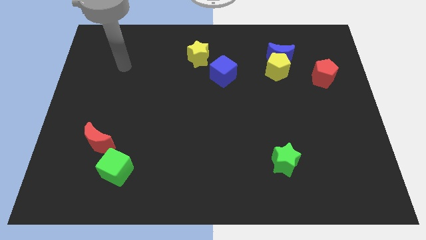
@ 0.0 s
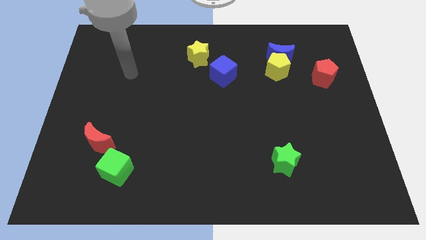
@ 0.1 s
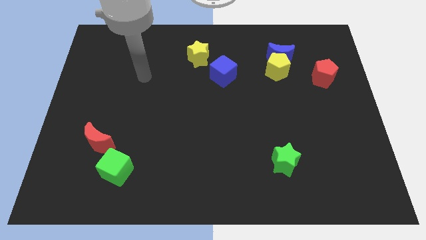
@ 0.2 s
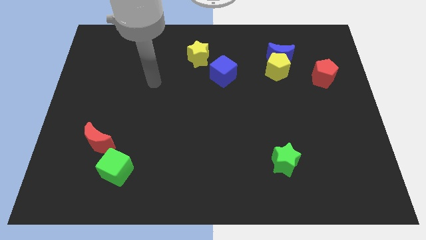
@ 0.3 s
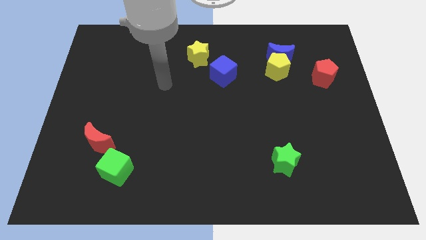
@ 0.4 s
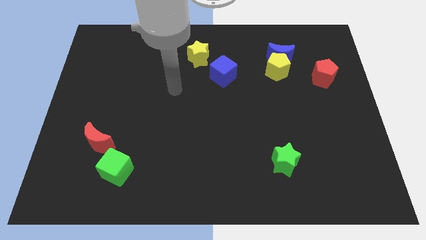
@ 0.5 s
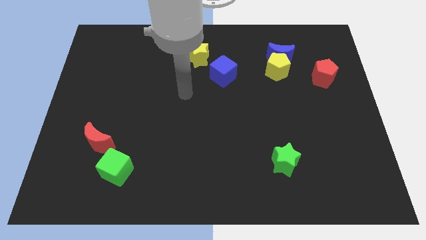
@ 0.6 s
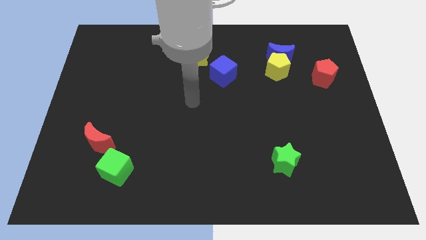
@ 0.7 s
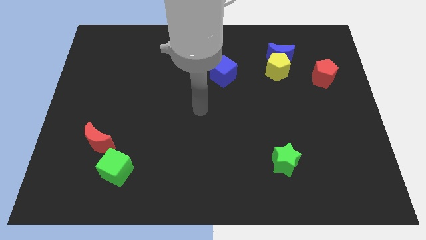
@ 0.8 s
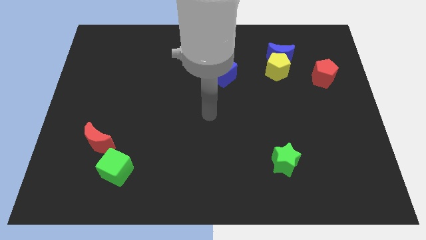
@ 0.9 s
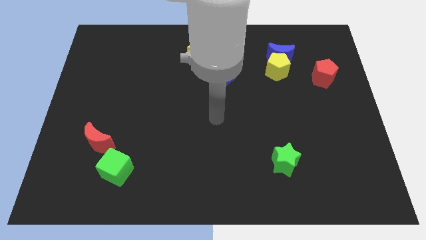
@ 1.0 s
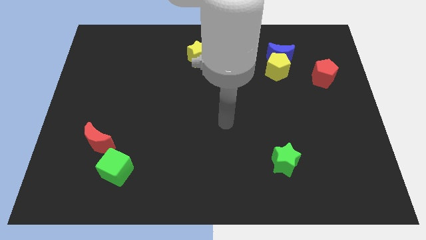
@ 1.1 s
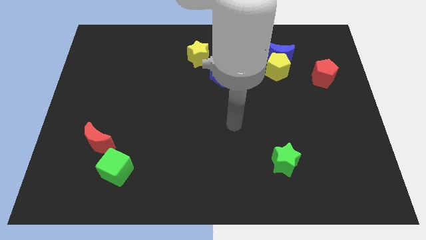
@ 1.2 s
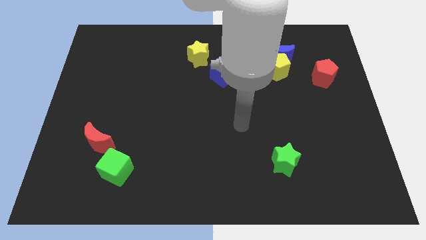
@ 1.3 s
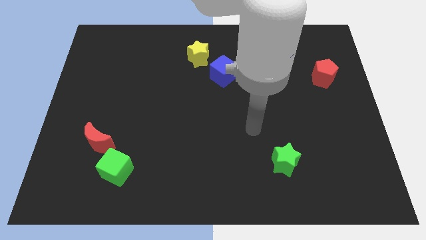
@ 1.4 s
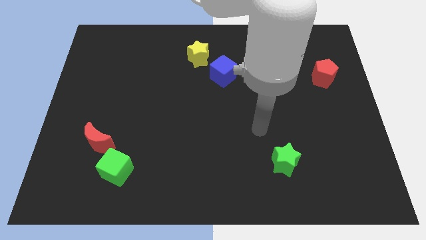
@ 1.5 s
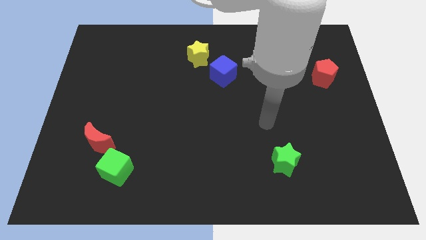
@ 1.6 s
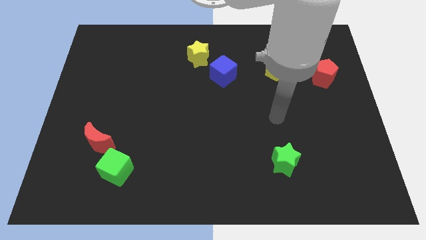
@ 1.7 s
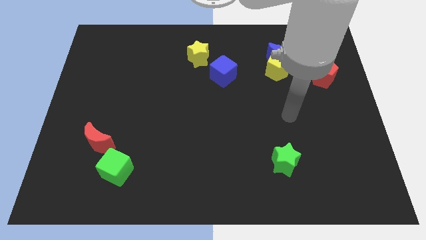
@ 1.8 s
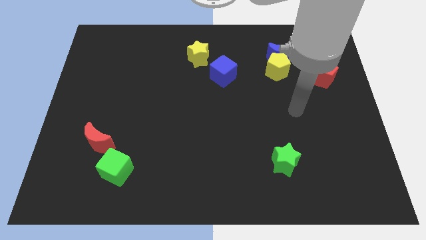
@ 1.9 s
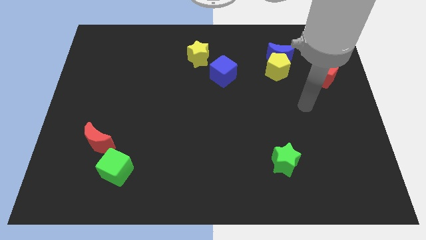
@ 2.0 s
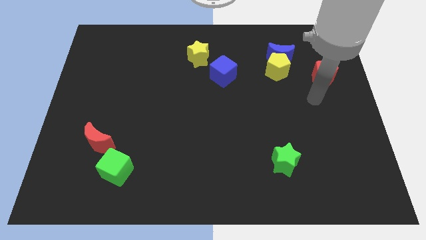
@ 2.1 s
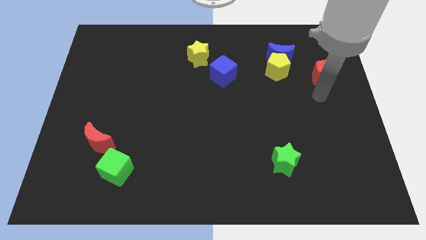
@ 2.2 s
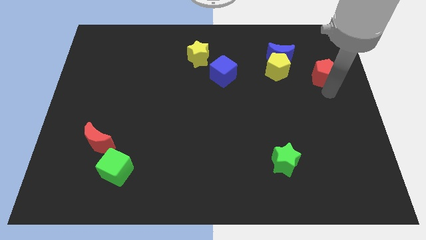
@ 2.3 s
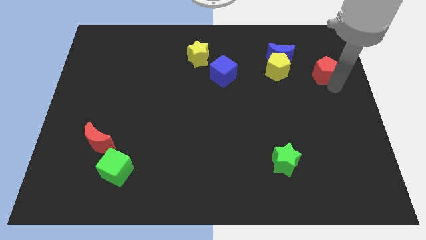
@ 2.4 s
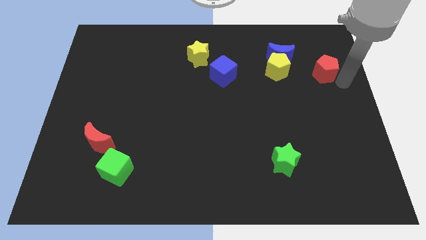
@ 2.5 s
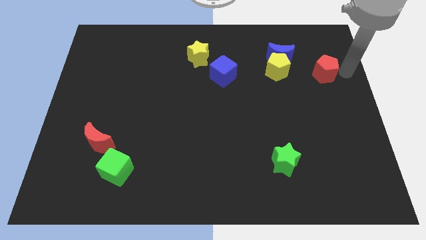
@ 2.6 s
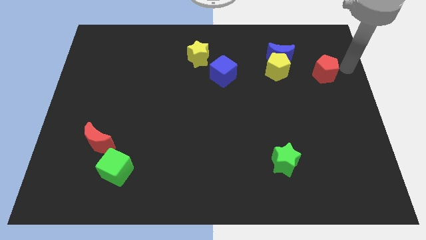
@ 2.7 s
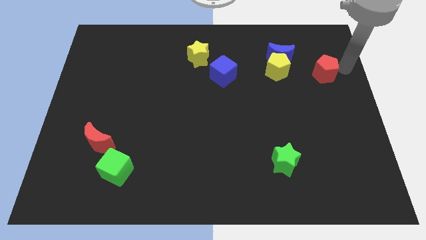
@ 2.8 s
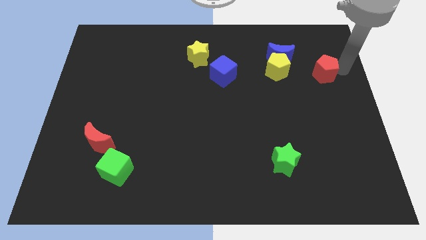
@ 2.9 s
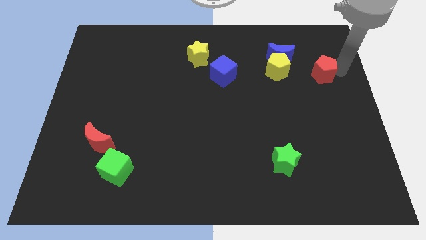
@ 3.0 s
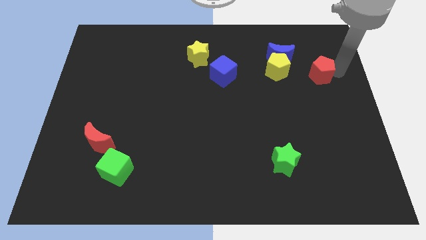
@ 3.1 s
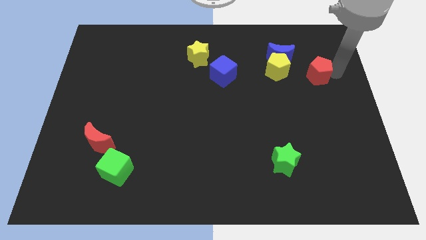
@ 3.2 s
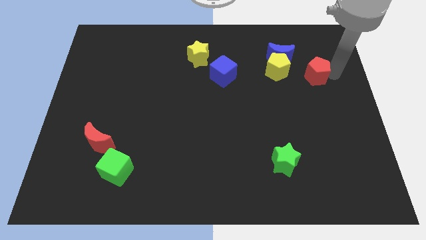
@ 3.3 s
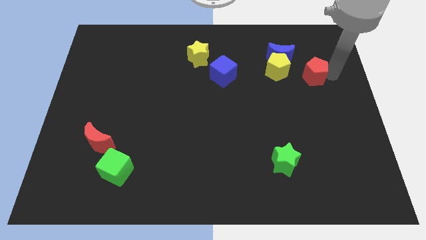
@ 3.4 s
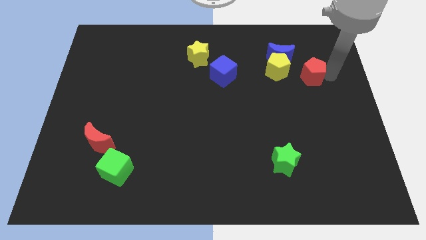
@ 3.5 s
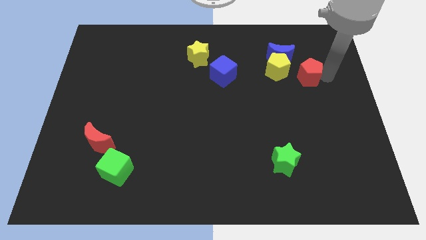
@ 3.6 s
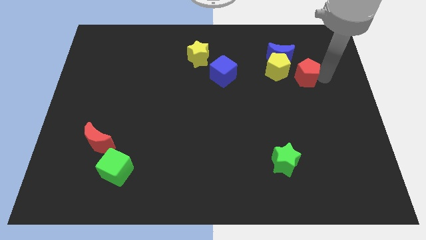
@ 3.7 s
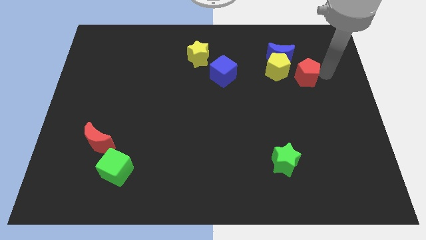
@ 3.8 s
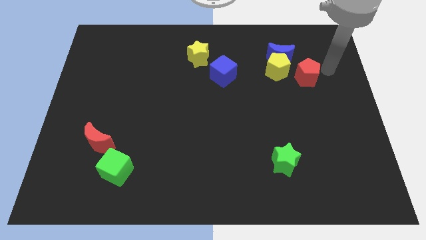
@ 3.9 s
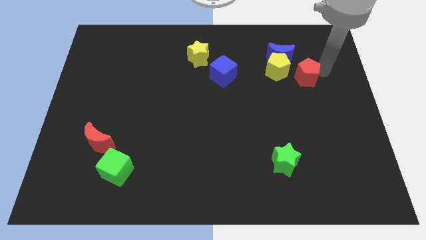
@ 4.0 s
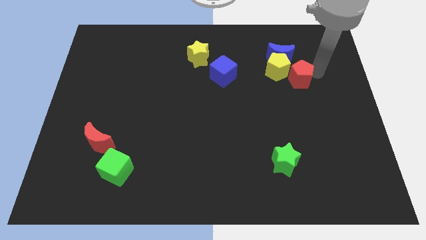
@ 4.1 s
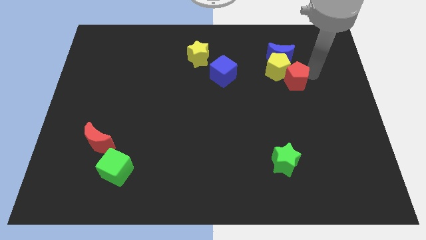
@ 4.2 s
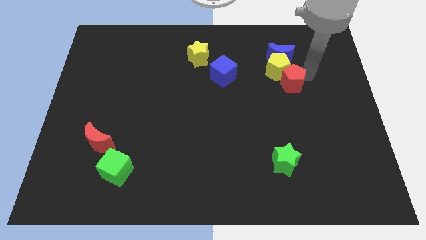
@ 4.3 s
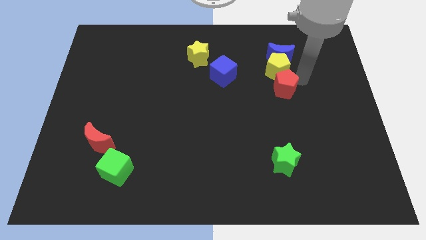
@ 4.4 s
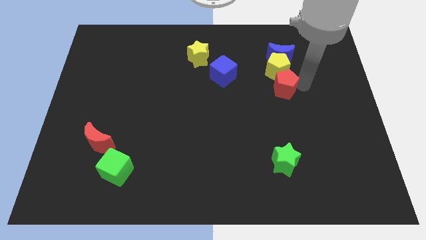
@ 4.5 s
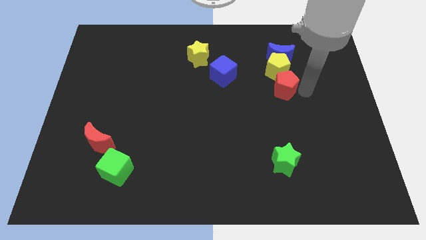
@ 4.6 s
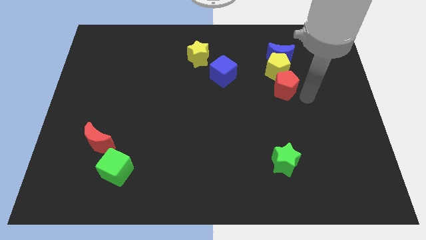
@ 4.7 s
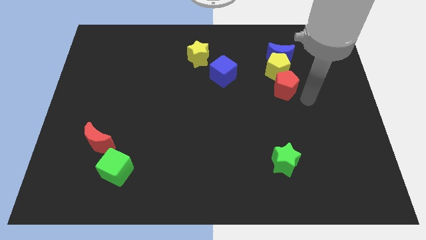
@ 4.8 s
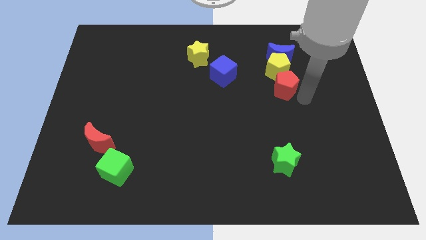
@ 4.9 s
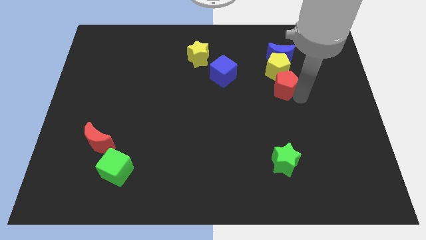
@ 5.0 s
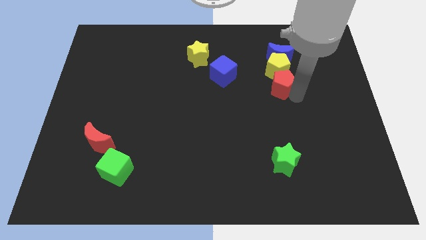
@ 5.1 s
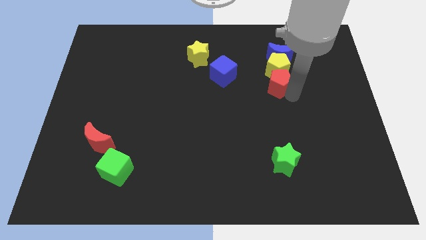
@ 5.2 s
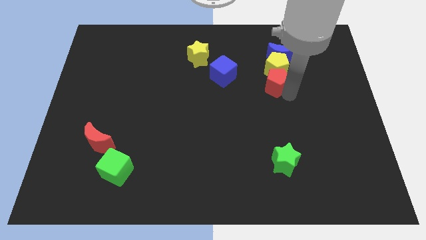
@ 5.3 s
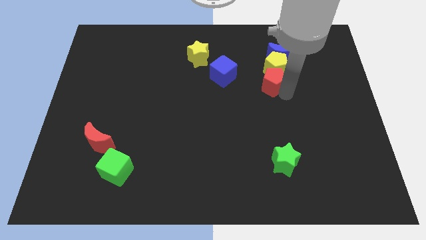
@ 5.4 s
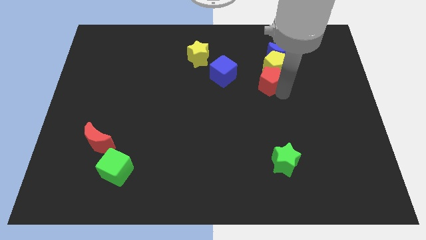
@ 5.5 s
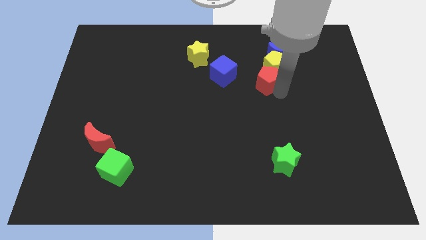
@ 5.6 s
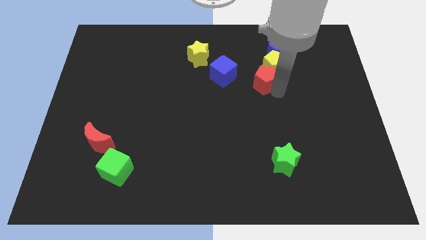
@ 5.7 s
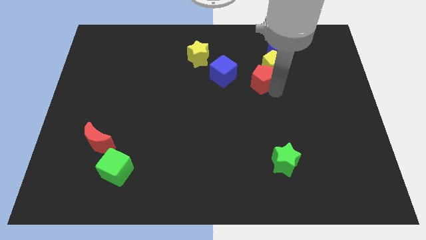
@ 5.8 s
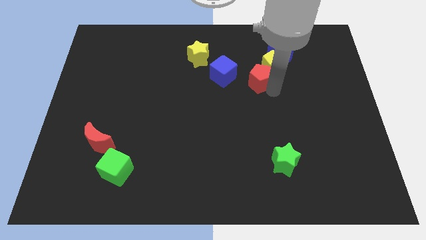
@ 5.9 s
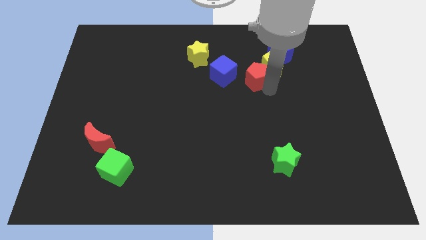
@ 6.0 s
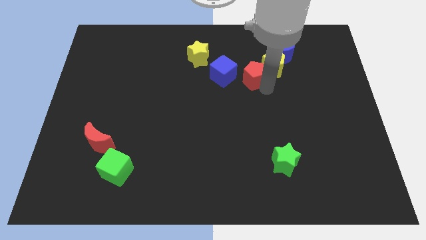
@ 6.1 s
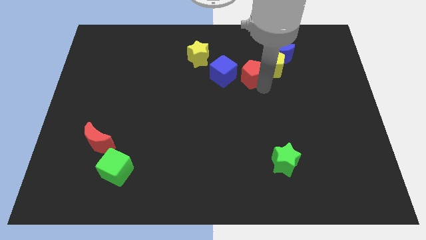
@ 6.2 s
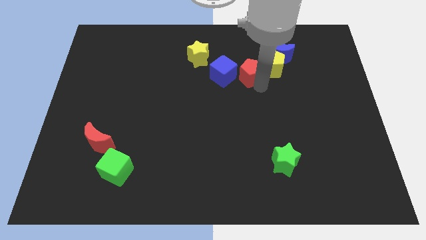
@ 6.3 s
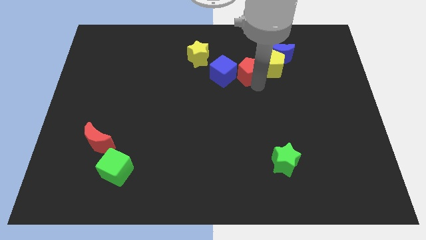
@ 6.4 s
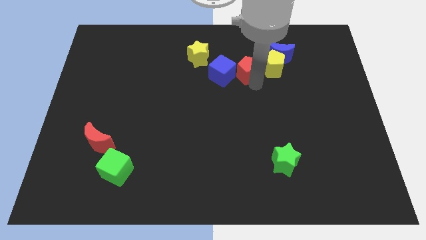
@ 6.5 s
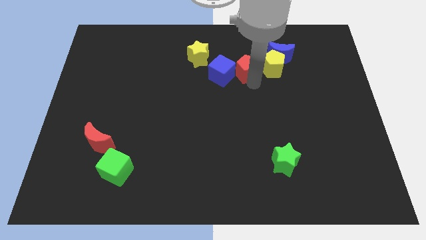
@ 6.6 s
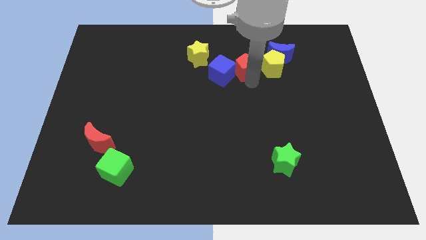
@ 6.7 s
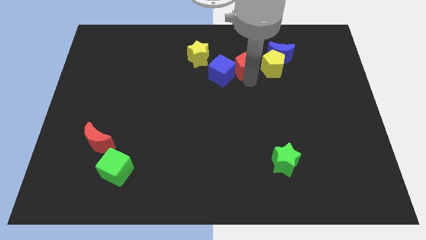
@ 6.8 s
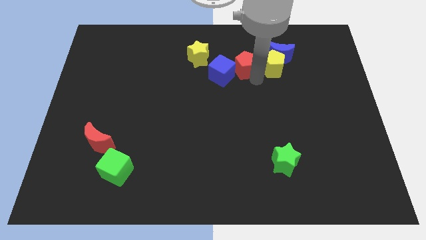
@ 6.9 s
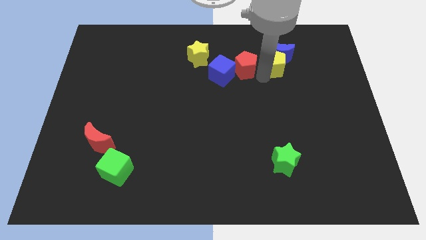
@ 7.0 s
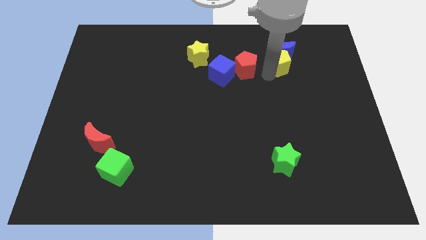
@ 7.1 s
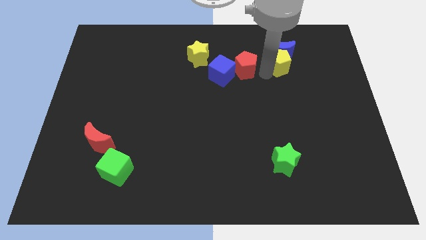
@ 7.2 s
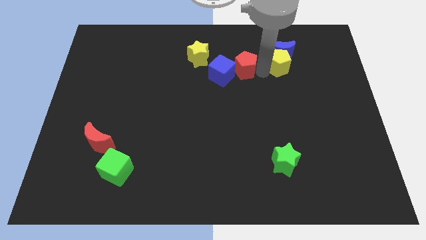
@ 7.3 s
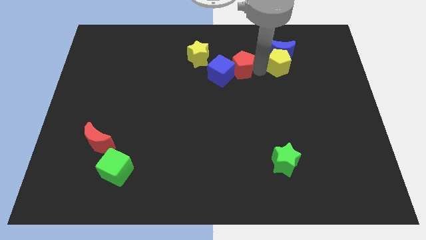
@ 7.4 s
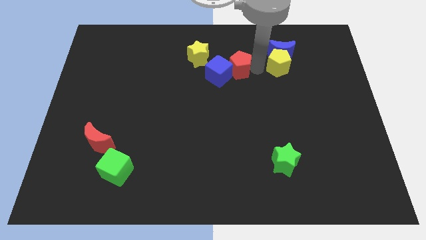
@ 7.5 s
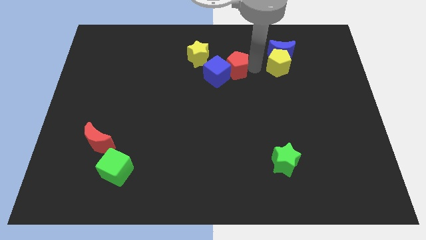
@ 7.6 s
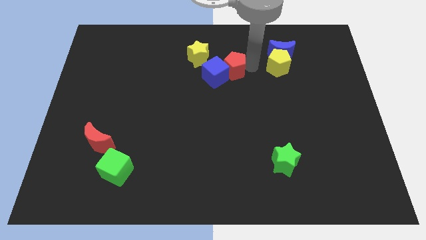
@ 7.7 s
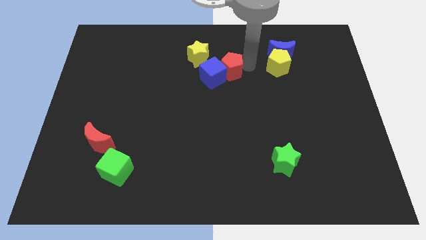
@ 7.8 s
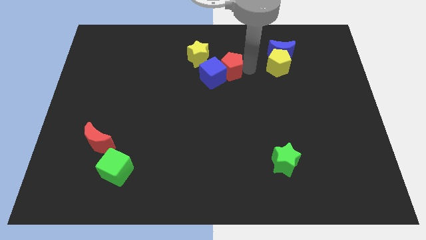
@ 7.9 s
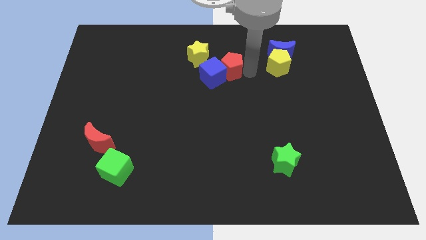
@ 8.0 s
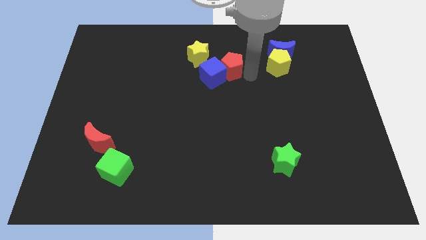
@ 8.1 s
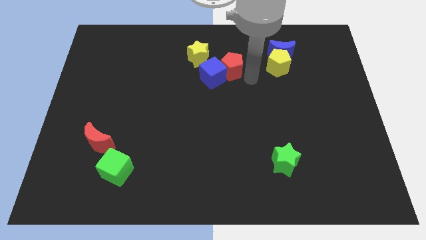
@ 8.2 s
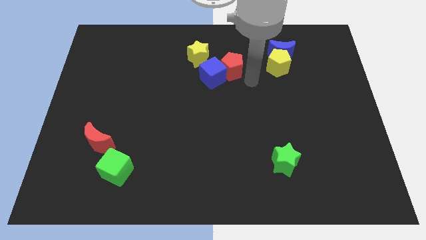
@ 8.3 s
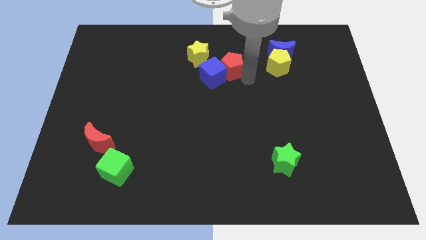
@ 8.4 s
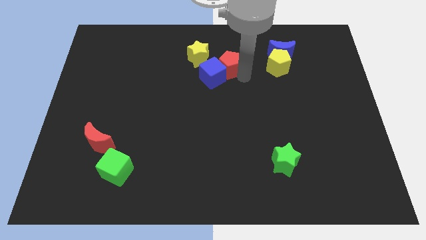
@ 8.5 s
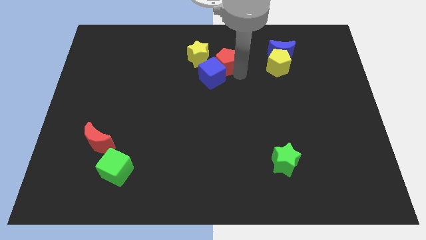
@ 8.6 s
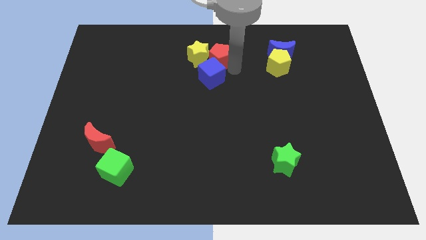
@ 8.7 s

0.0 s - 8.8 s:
move the red pentagon close to the yellow star
